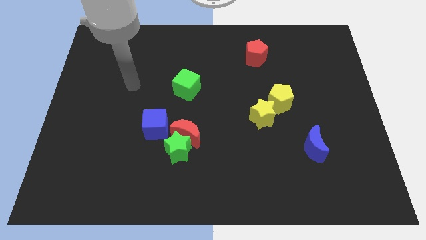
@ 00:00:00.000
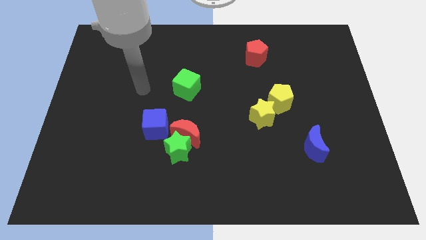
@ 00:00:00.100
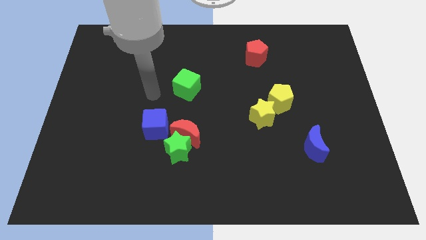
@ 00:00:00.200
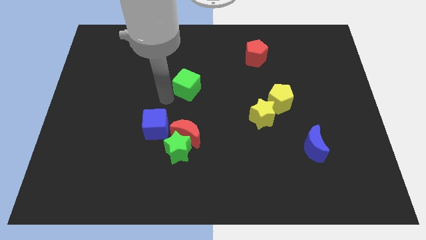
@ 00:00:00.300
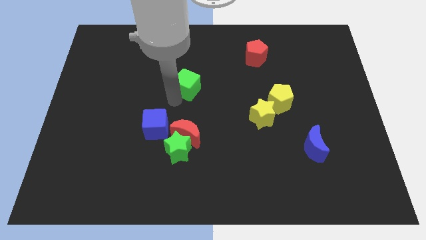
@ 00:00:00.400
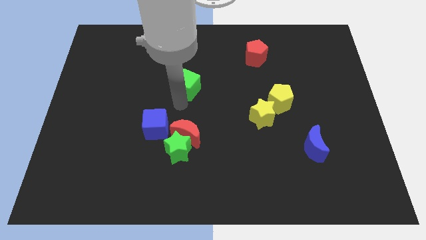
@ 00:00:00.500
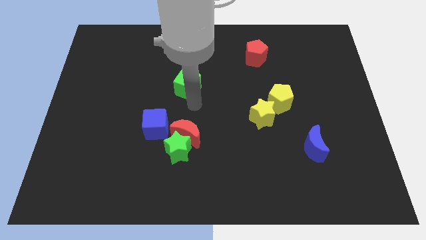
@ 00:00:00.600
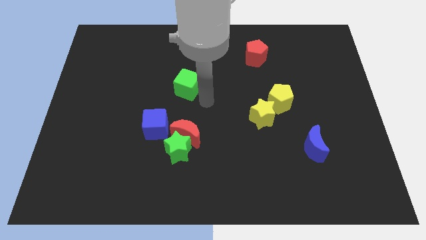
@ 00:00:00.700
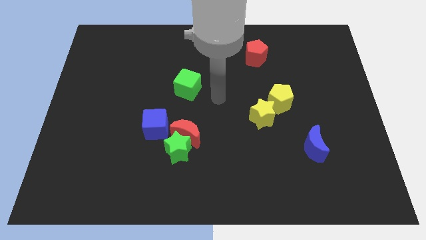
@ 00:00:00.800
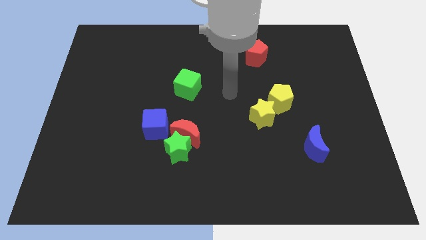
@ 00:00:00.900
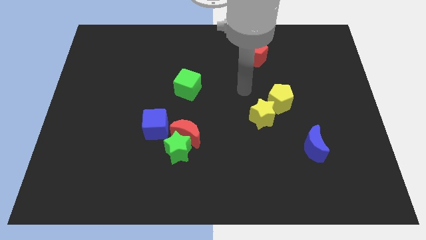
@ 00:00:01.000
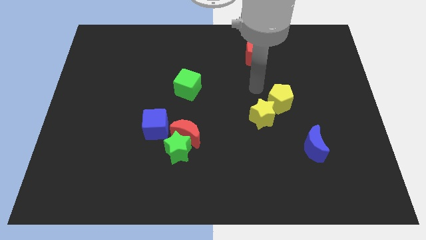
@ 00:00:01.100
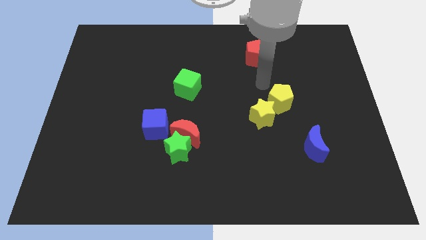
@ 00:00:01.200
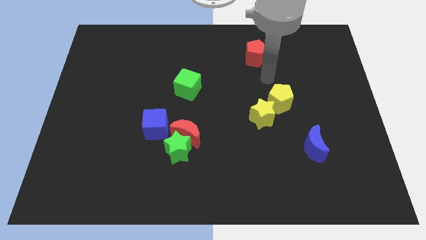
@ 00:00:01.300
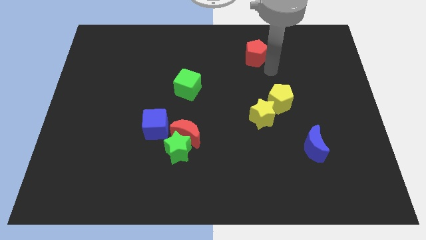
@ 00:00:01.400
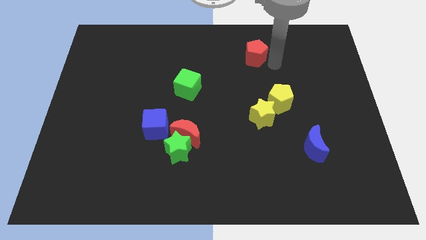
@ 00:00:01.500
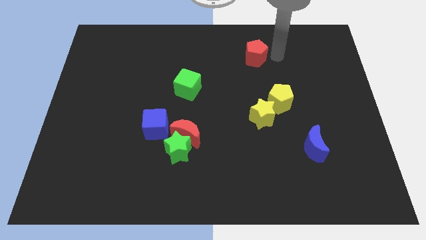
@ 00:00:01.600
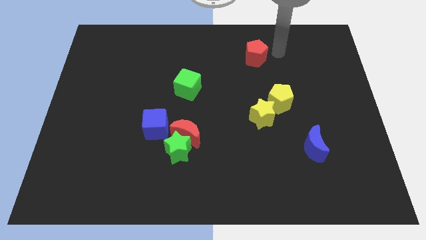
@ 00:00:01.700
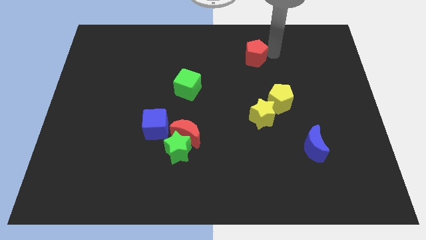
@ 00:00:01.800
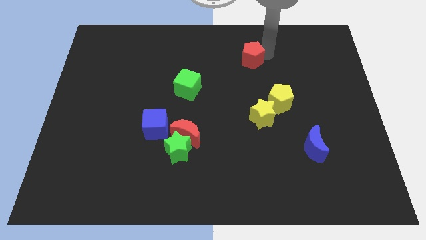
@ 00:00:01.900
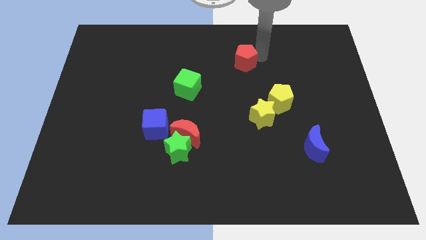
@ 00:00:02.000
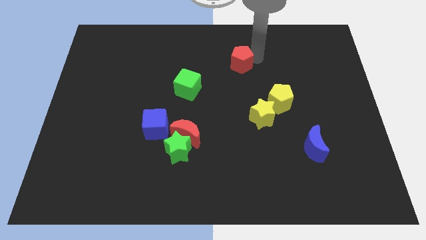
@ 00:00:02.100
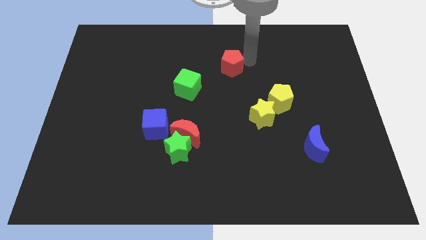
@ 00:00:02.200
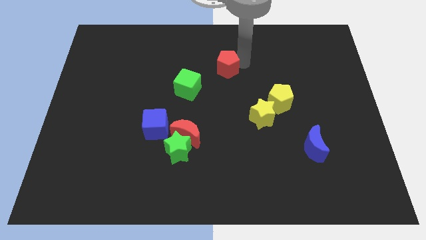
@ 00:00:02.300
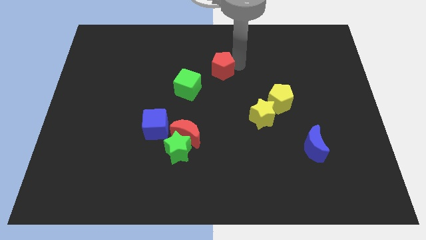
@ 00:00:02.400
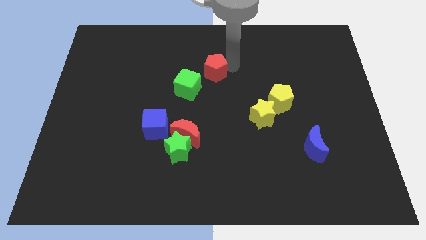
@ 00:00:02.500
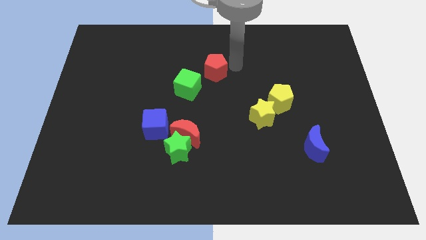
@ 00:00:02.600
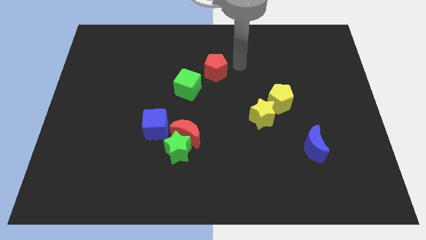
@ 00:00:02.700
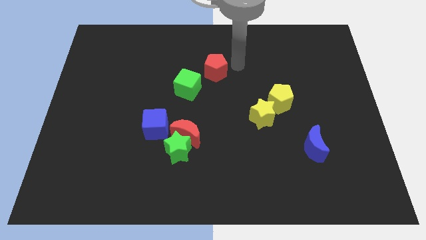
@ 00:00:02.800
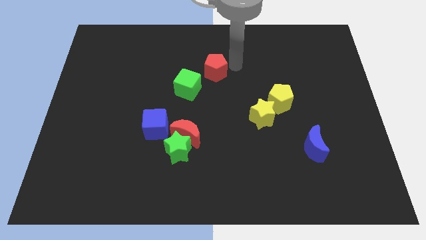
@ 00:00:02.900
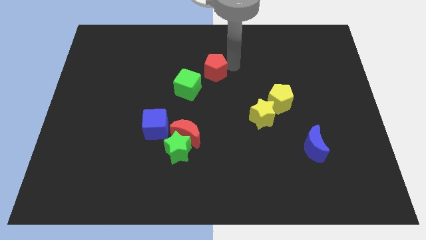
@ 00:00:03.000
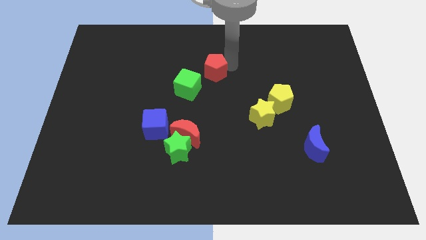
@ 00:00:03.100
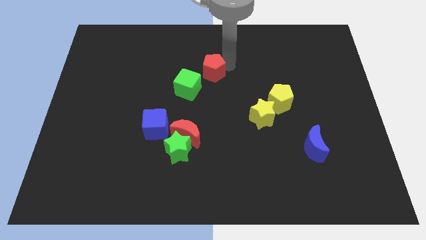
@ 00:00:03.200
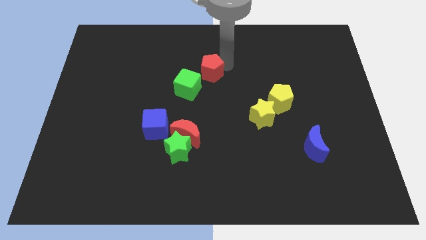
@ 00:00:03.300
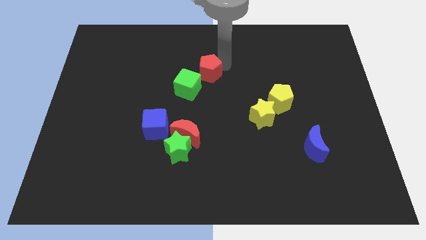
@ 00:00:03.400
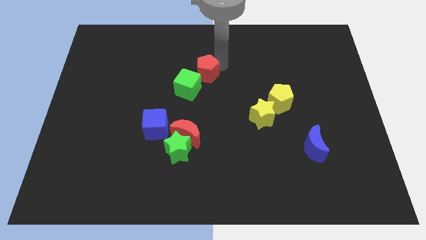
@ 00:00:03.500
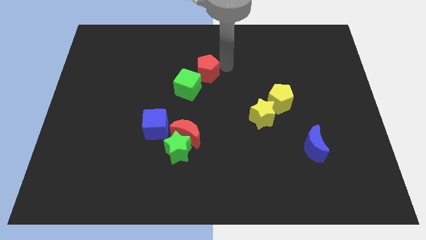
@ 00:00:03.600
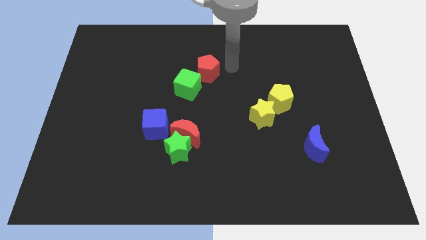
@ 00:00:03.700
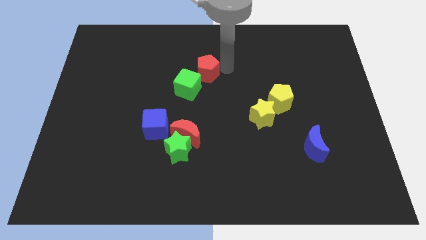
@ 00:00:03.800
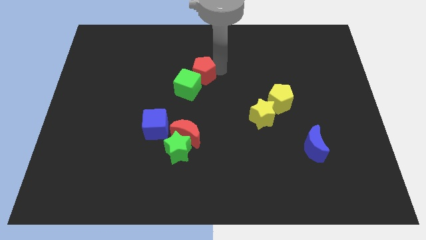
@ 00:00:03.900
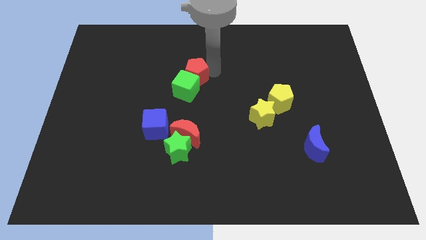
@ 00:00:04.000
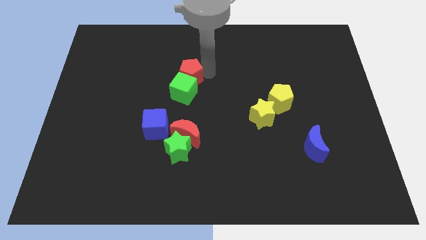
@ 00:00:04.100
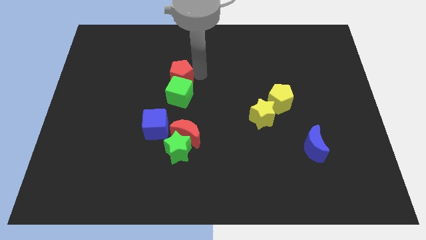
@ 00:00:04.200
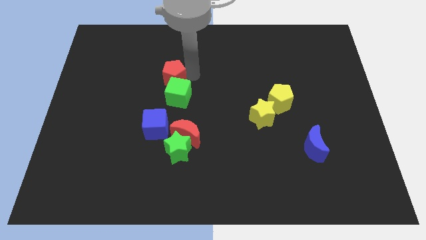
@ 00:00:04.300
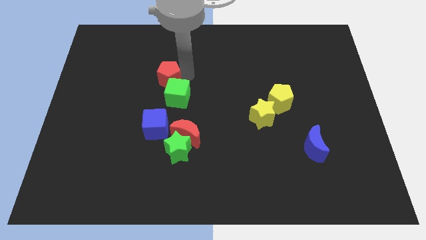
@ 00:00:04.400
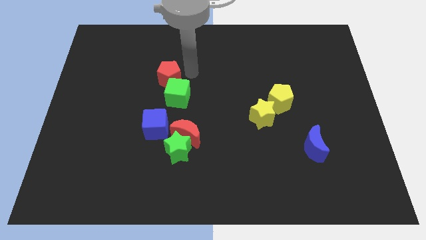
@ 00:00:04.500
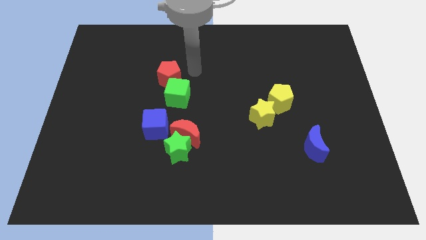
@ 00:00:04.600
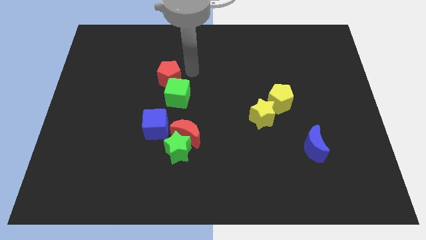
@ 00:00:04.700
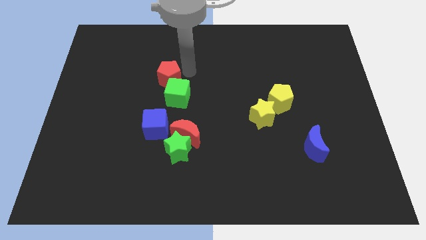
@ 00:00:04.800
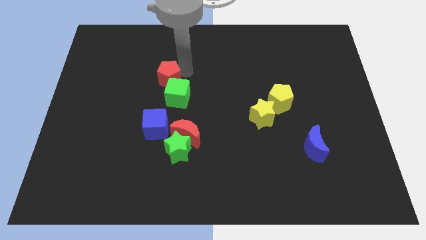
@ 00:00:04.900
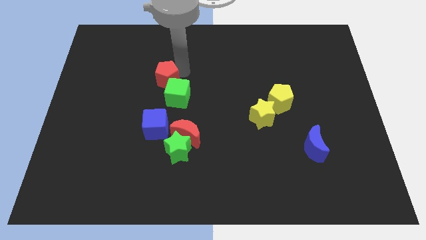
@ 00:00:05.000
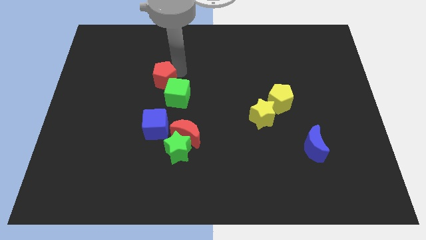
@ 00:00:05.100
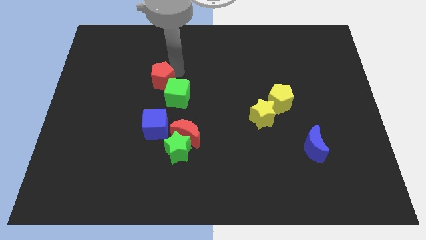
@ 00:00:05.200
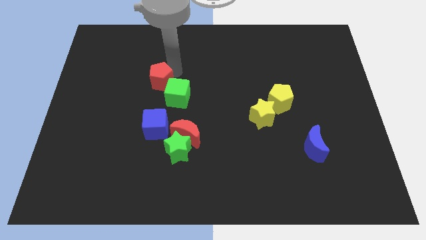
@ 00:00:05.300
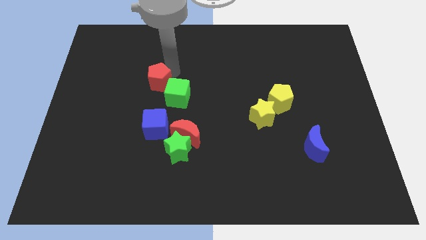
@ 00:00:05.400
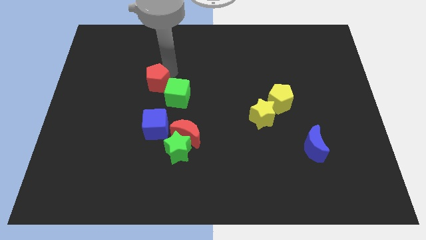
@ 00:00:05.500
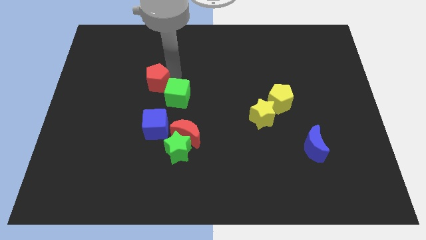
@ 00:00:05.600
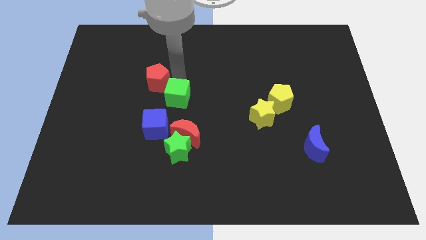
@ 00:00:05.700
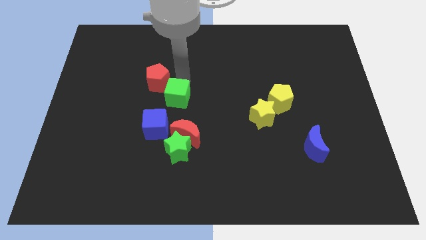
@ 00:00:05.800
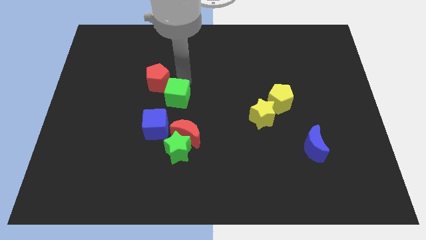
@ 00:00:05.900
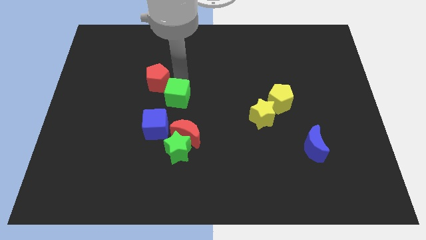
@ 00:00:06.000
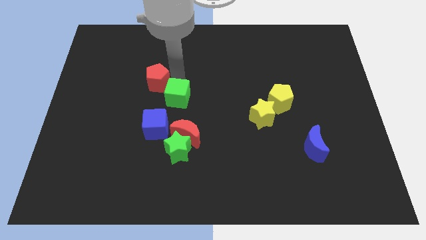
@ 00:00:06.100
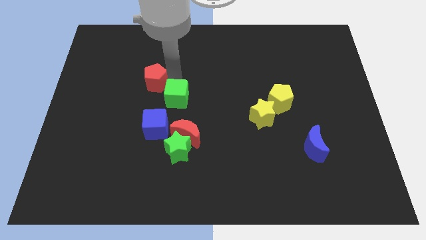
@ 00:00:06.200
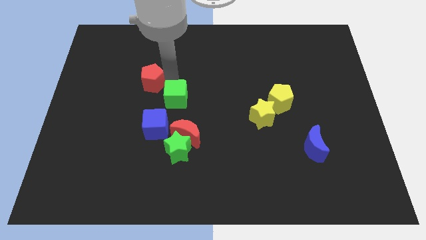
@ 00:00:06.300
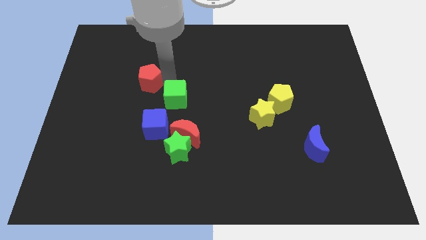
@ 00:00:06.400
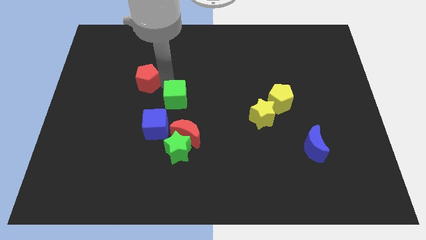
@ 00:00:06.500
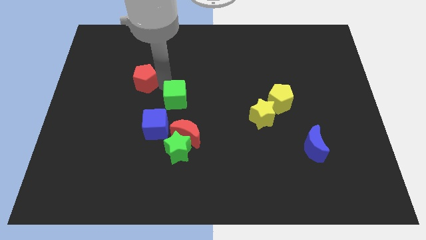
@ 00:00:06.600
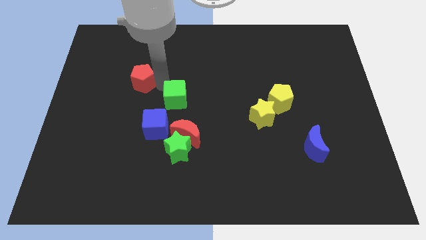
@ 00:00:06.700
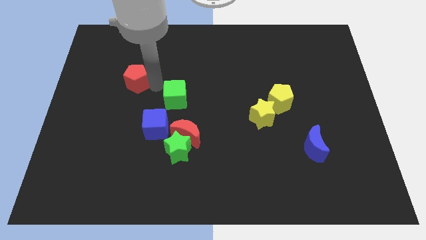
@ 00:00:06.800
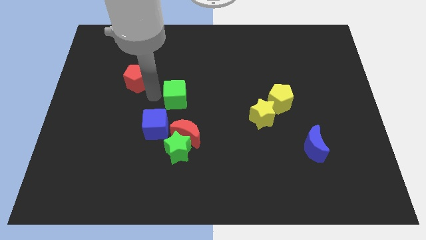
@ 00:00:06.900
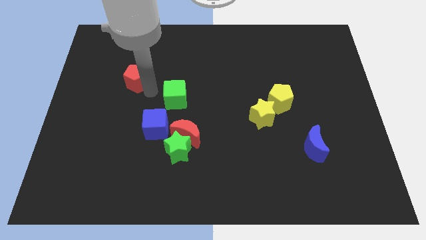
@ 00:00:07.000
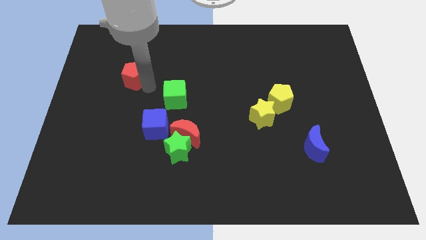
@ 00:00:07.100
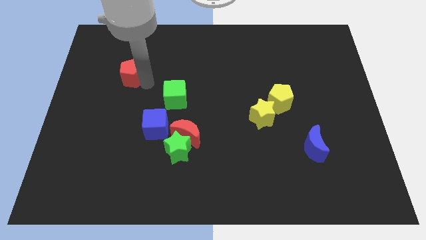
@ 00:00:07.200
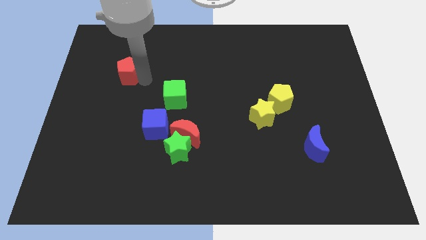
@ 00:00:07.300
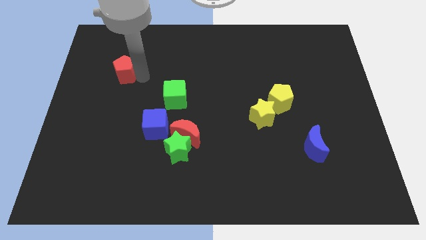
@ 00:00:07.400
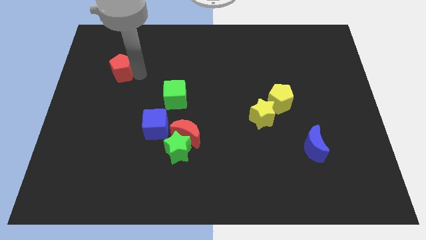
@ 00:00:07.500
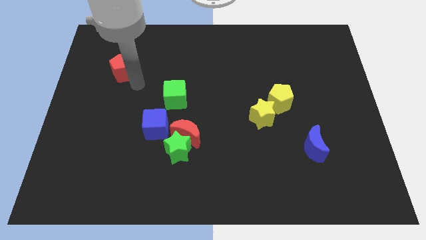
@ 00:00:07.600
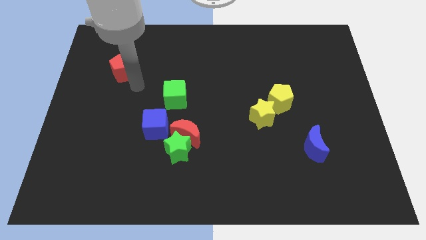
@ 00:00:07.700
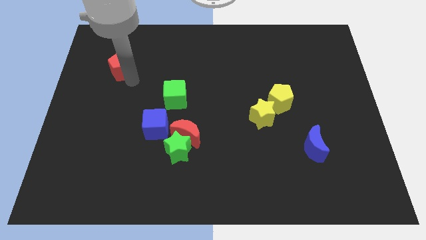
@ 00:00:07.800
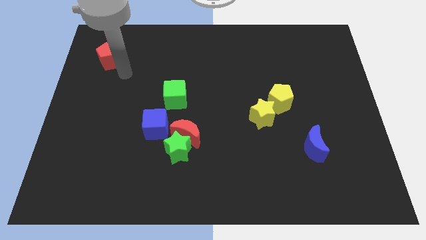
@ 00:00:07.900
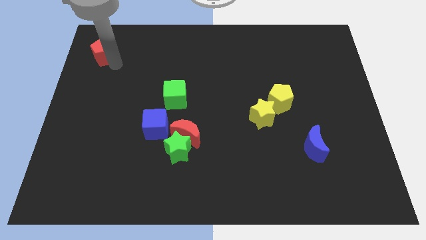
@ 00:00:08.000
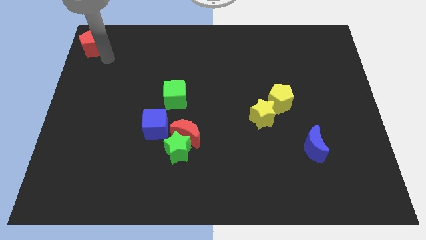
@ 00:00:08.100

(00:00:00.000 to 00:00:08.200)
push the red pentagon to the top left corner
